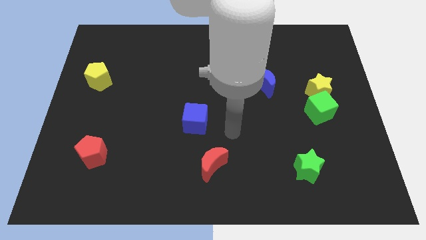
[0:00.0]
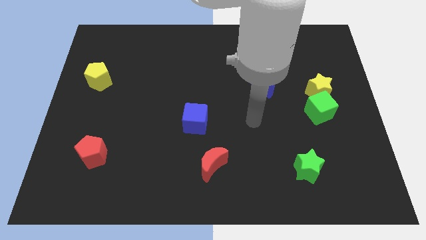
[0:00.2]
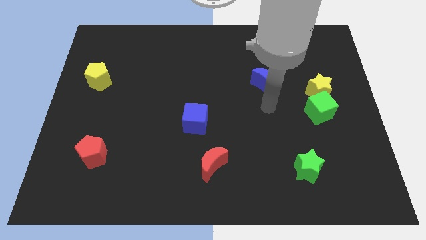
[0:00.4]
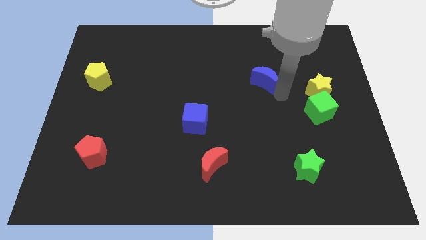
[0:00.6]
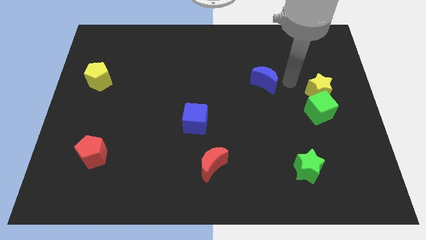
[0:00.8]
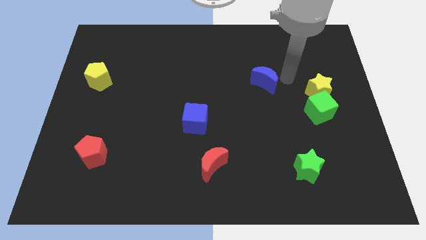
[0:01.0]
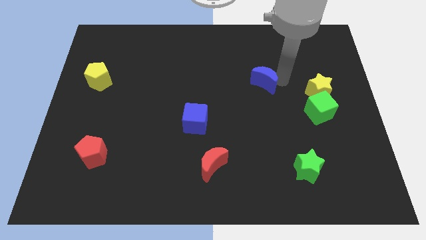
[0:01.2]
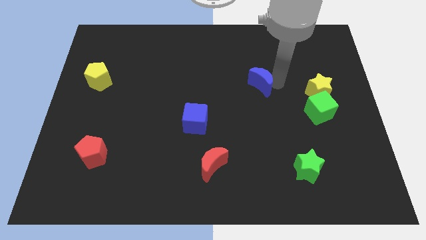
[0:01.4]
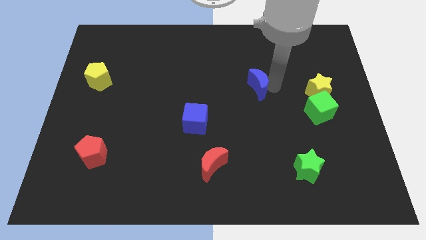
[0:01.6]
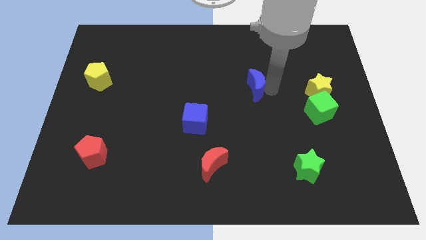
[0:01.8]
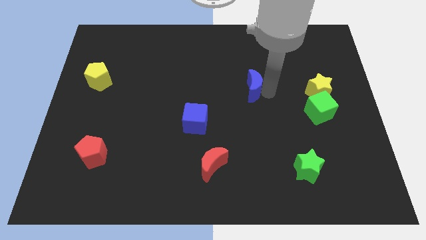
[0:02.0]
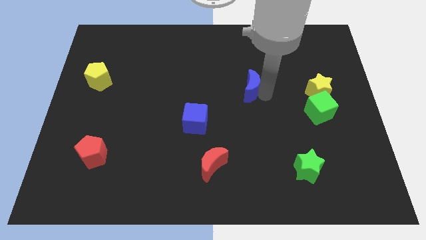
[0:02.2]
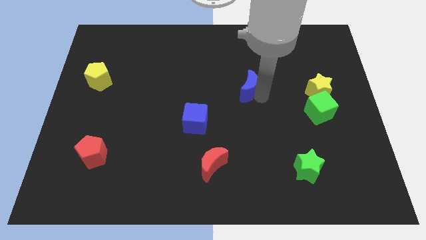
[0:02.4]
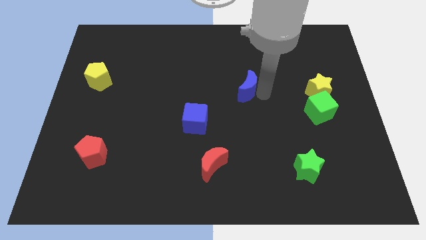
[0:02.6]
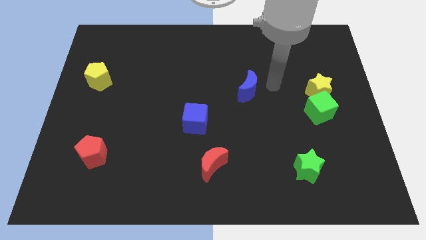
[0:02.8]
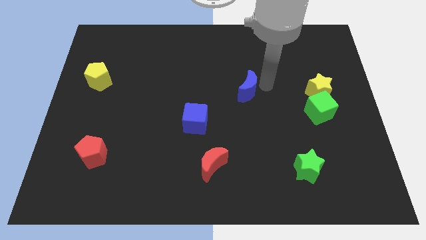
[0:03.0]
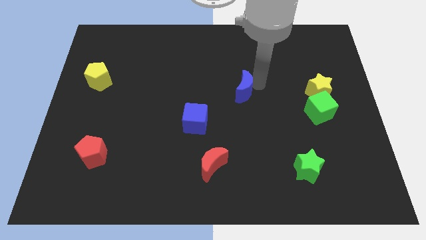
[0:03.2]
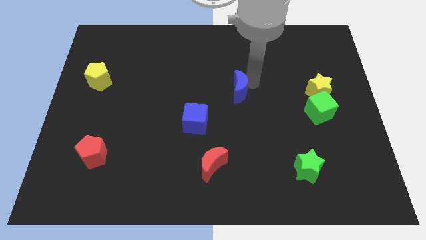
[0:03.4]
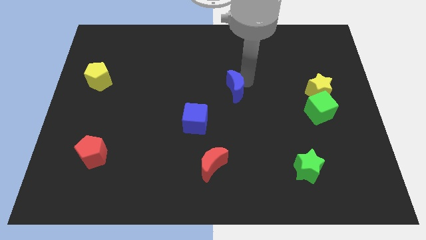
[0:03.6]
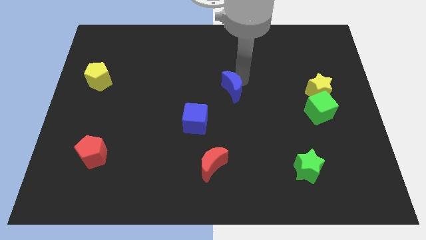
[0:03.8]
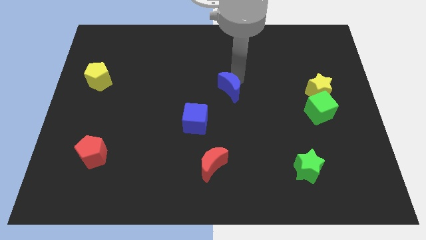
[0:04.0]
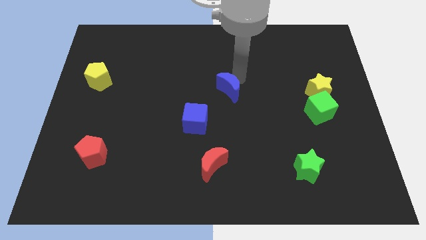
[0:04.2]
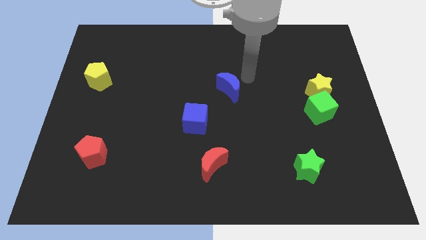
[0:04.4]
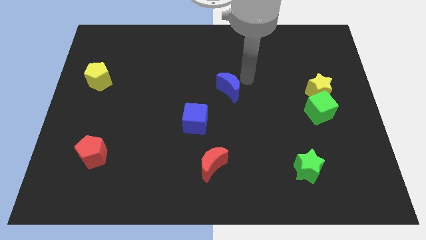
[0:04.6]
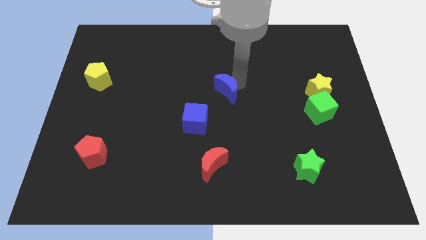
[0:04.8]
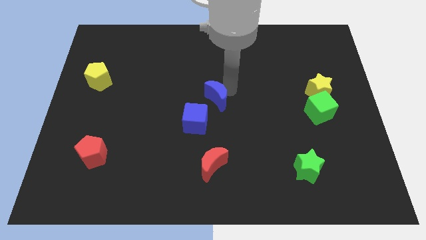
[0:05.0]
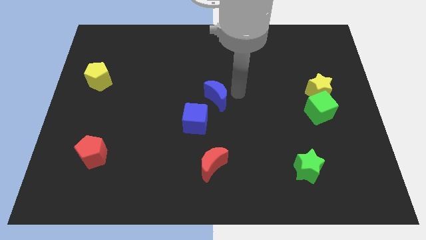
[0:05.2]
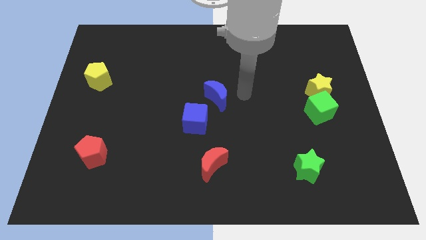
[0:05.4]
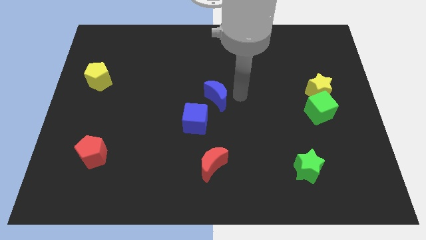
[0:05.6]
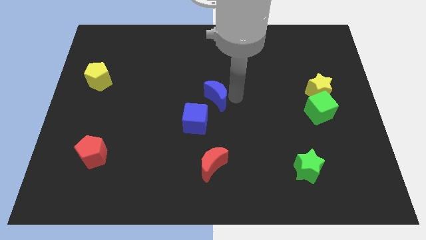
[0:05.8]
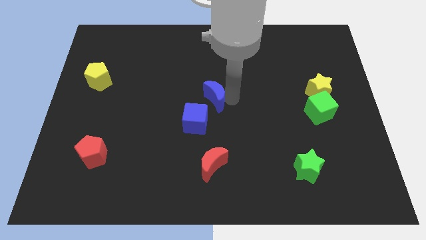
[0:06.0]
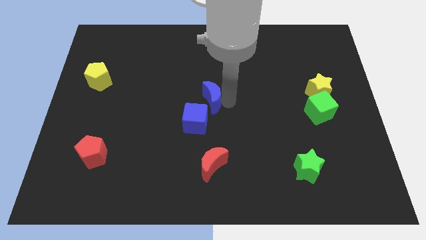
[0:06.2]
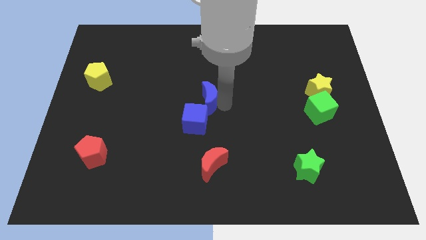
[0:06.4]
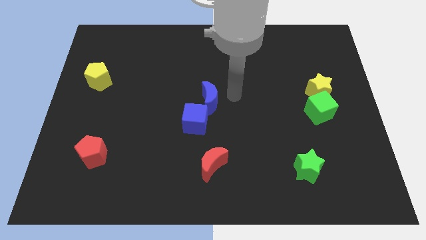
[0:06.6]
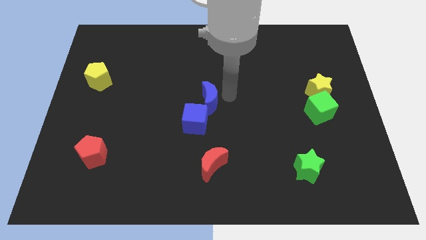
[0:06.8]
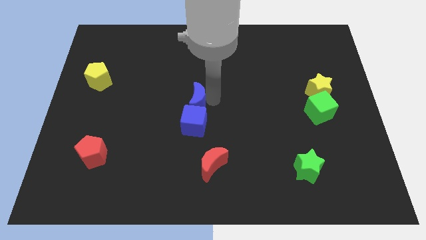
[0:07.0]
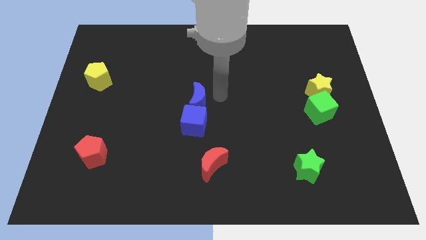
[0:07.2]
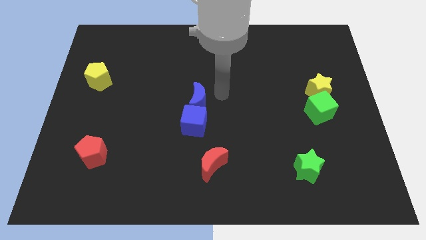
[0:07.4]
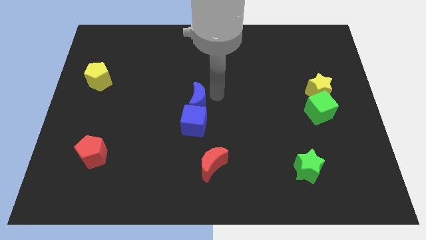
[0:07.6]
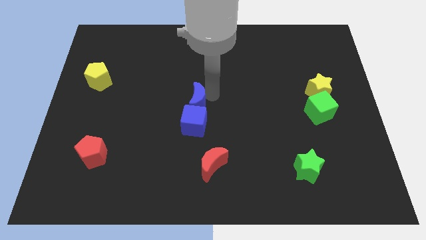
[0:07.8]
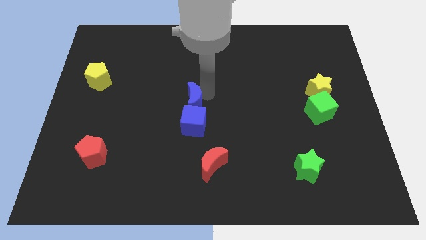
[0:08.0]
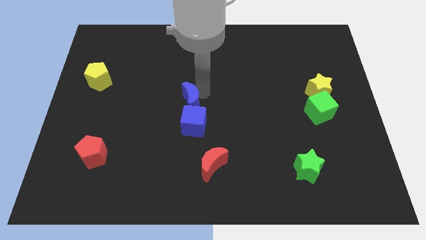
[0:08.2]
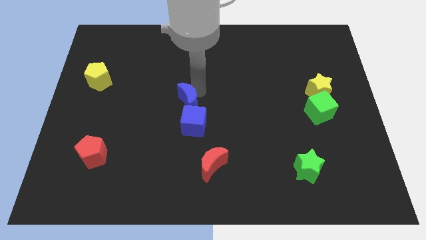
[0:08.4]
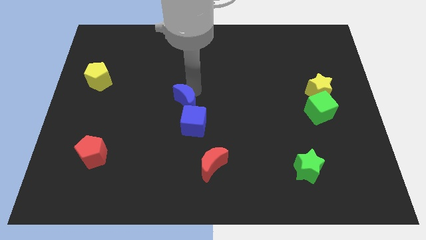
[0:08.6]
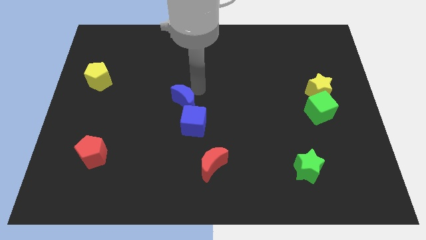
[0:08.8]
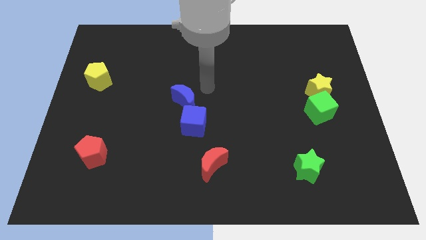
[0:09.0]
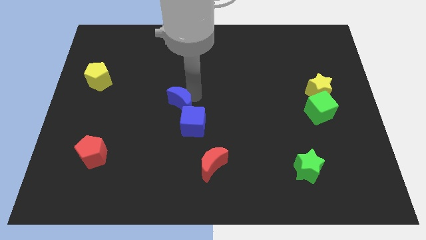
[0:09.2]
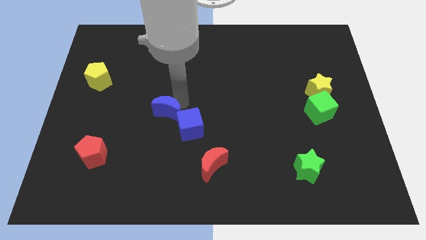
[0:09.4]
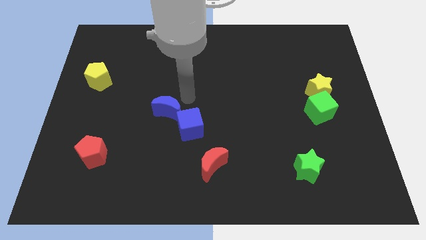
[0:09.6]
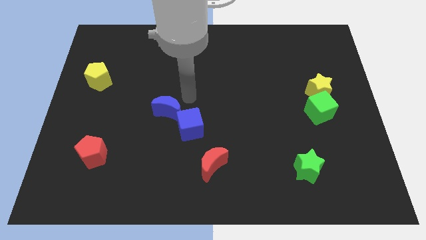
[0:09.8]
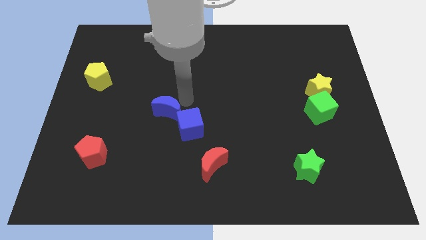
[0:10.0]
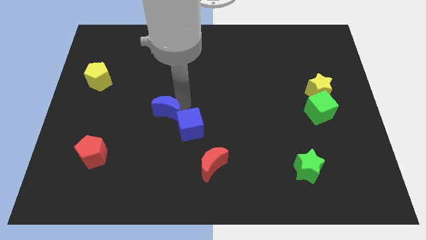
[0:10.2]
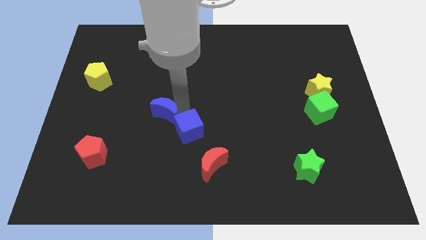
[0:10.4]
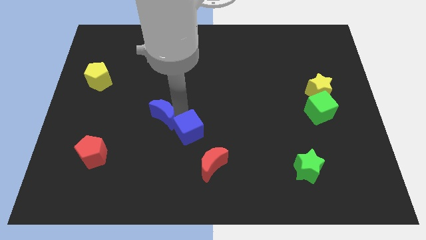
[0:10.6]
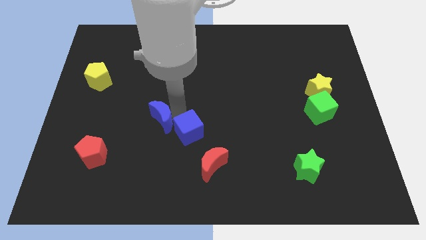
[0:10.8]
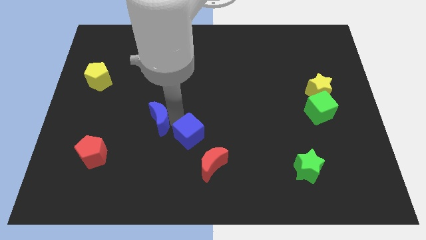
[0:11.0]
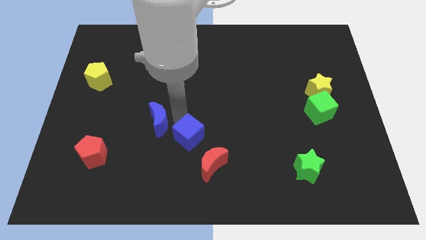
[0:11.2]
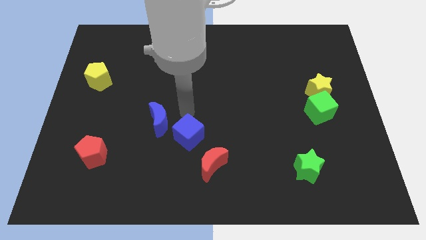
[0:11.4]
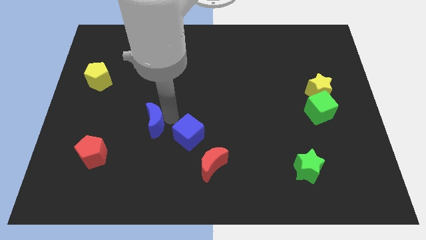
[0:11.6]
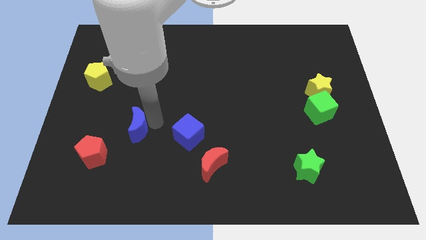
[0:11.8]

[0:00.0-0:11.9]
put the blue moon to the top right of the red pentagon
